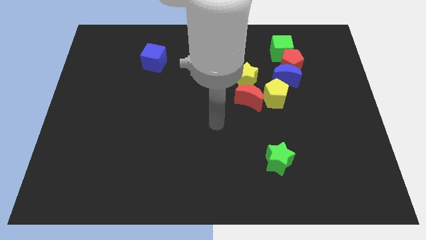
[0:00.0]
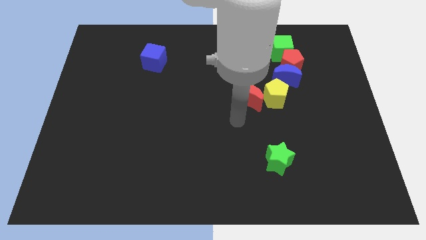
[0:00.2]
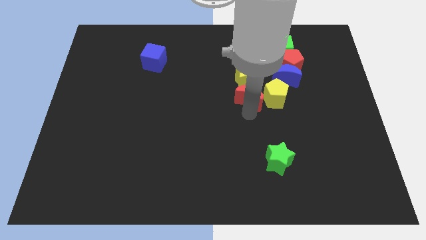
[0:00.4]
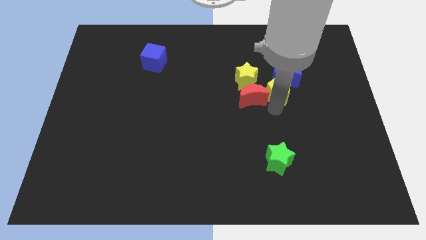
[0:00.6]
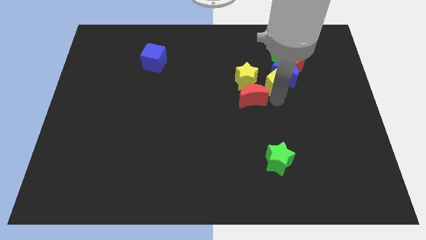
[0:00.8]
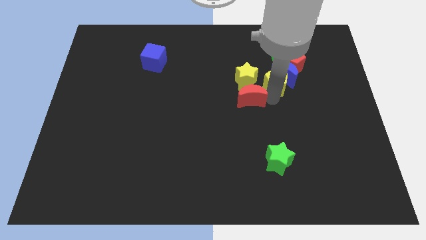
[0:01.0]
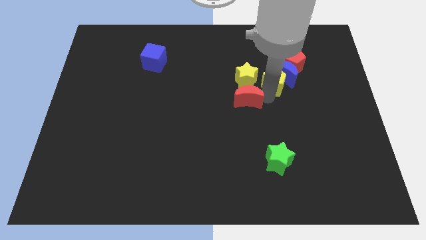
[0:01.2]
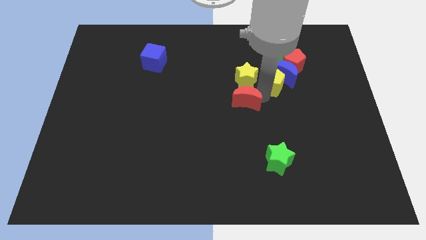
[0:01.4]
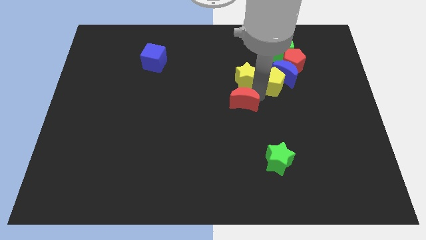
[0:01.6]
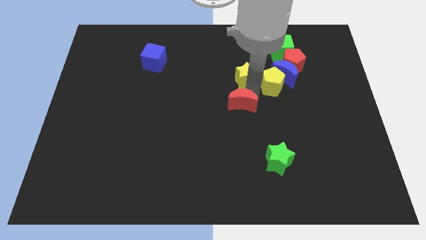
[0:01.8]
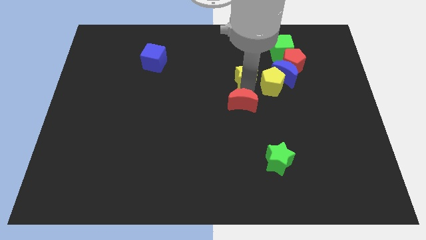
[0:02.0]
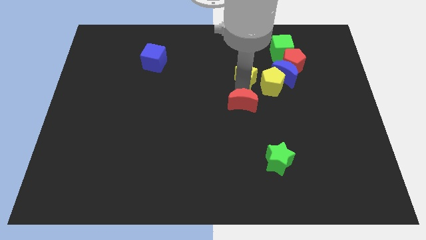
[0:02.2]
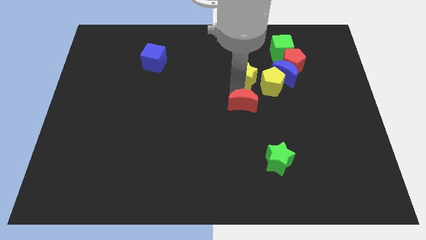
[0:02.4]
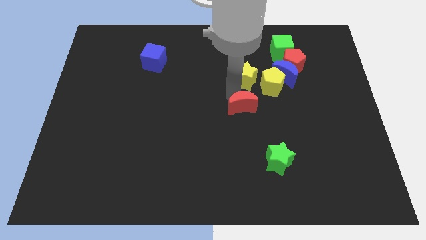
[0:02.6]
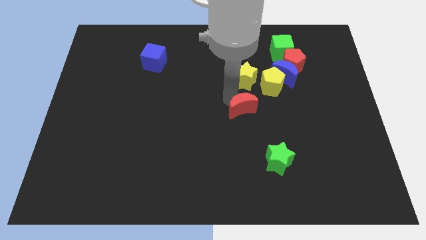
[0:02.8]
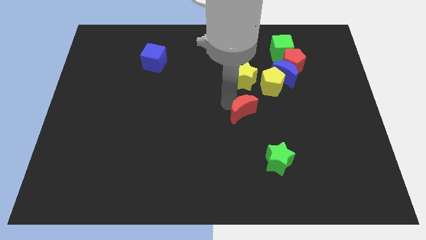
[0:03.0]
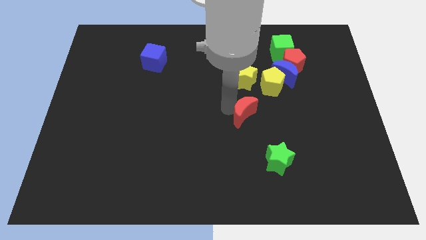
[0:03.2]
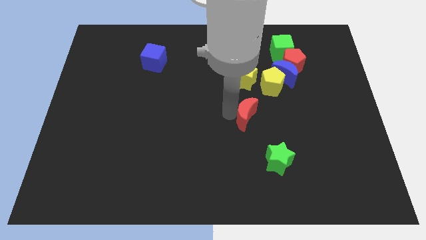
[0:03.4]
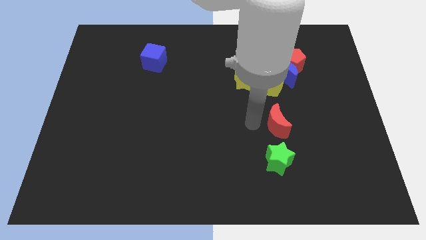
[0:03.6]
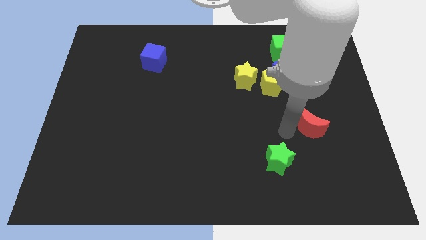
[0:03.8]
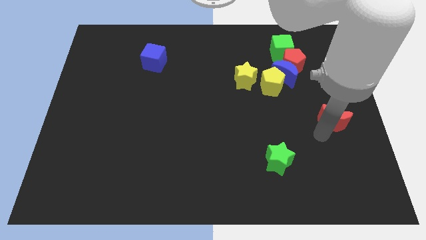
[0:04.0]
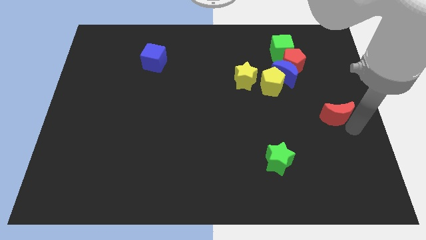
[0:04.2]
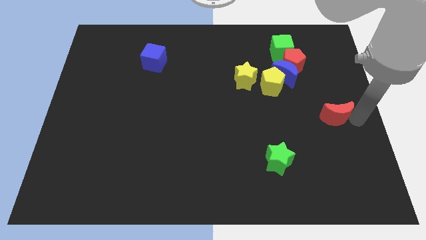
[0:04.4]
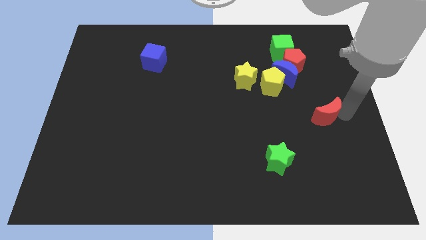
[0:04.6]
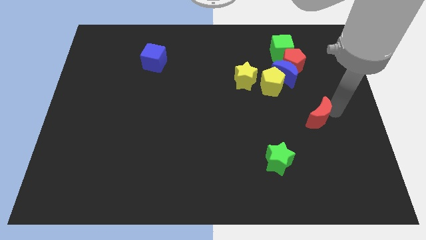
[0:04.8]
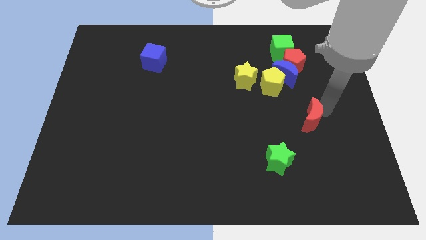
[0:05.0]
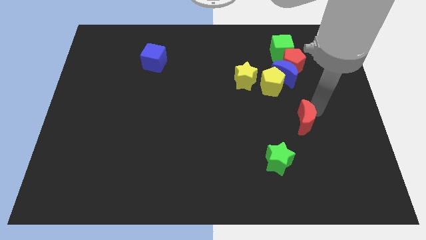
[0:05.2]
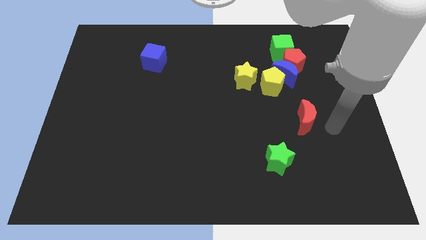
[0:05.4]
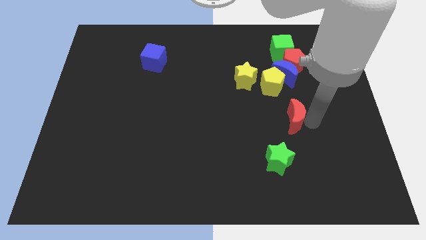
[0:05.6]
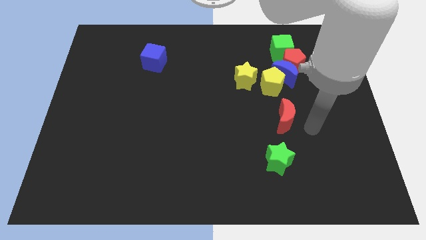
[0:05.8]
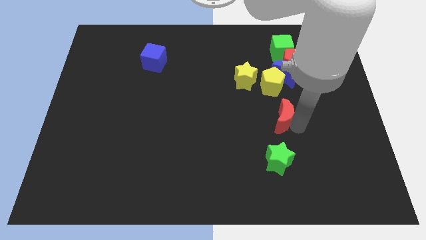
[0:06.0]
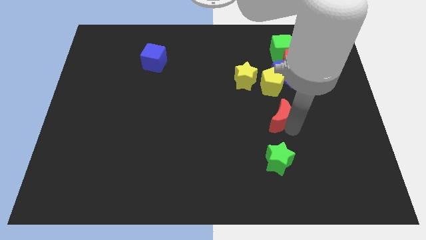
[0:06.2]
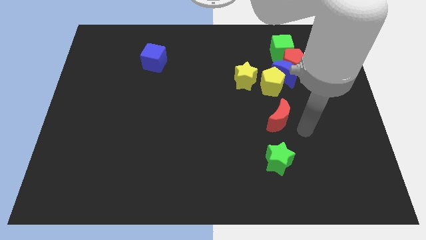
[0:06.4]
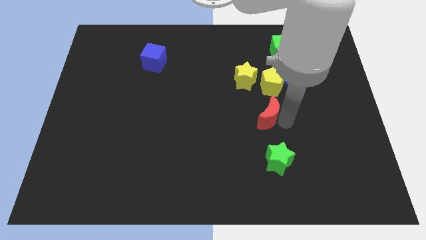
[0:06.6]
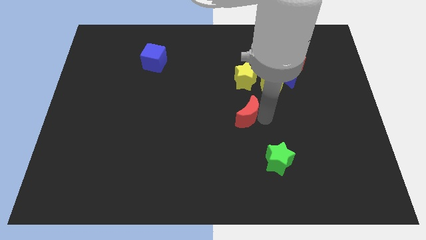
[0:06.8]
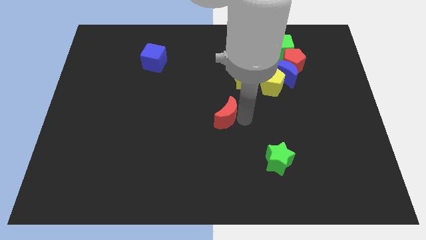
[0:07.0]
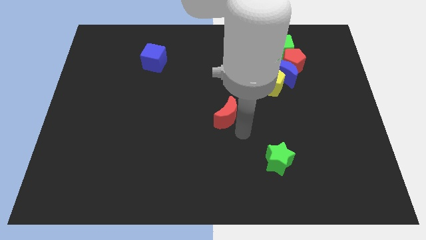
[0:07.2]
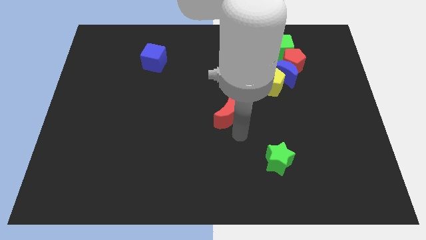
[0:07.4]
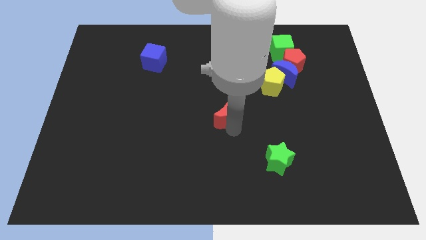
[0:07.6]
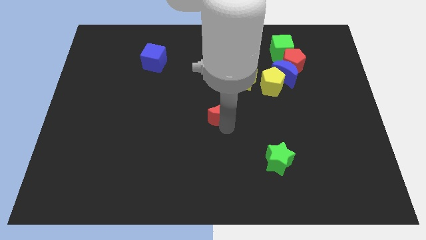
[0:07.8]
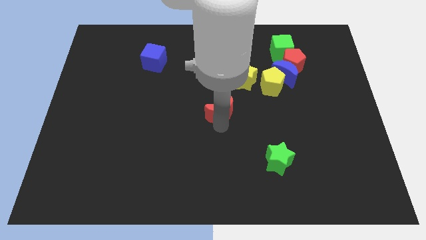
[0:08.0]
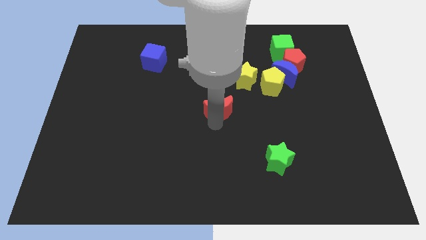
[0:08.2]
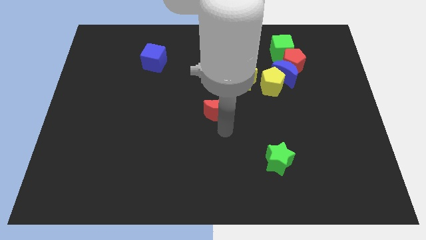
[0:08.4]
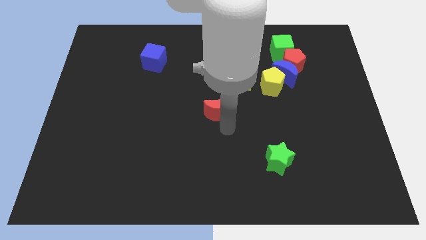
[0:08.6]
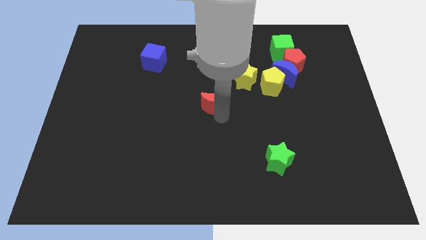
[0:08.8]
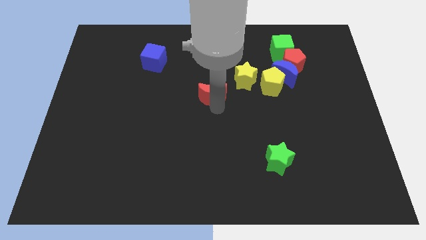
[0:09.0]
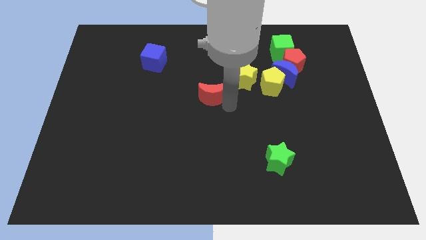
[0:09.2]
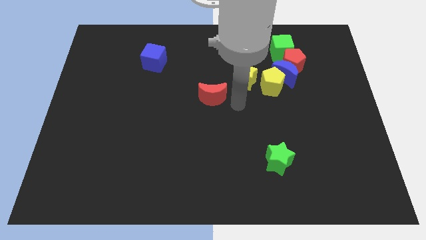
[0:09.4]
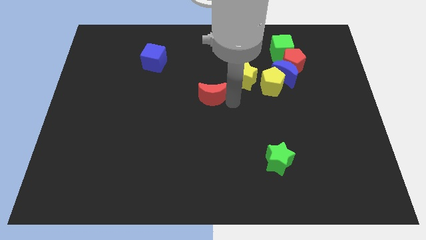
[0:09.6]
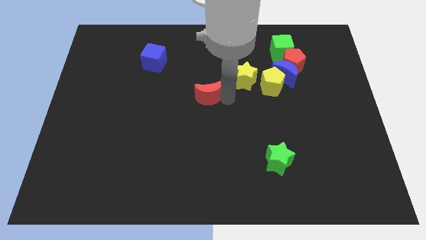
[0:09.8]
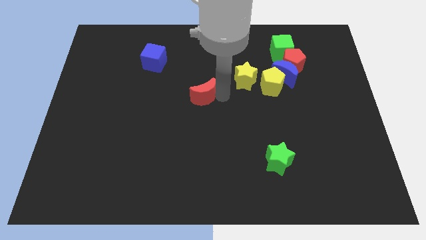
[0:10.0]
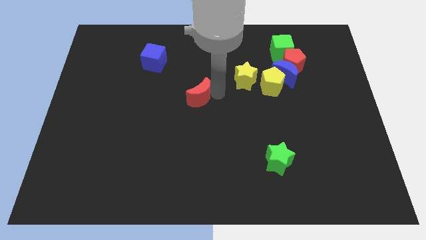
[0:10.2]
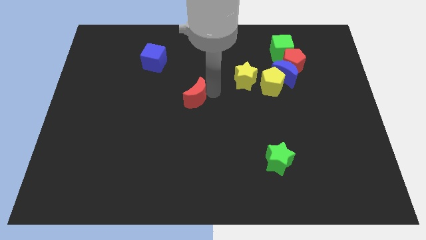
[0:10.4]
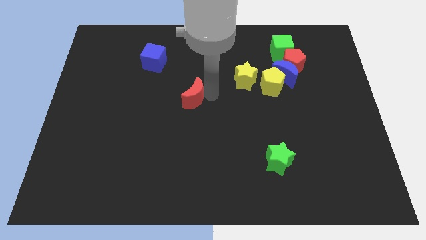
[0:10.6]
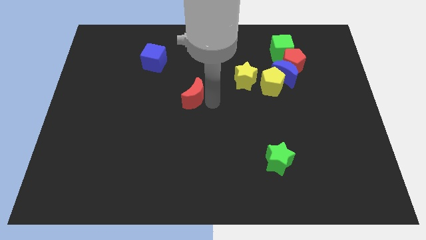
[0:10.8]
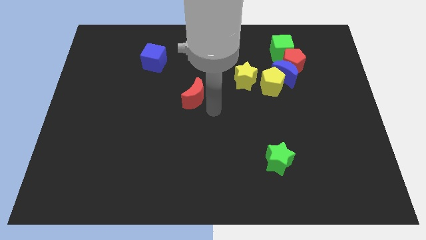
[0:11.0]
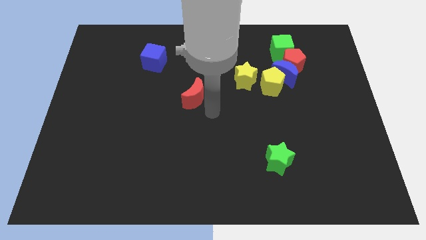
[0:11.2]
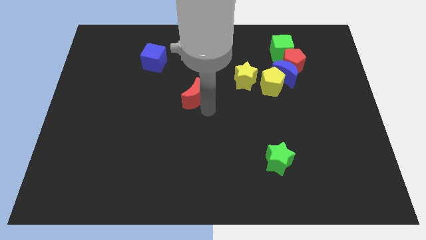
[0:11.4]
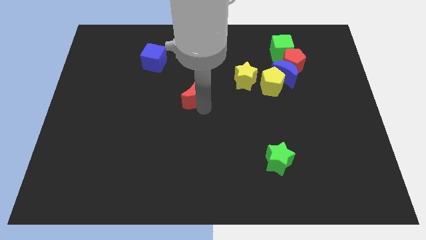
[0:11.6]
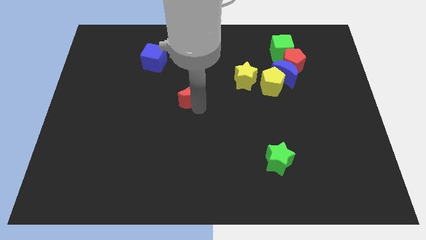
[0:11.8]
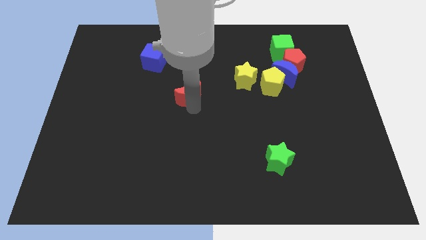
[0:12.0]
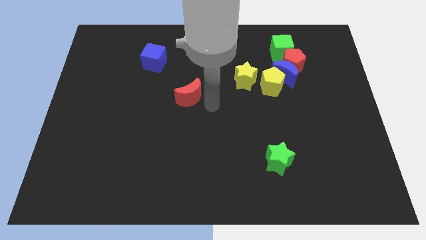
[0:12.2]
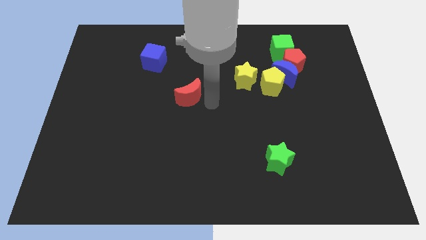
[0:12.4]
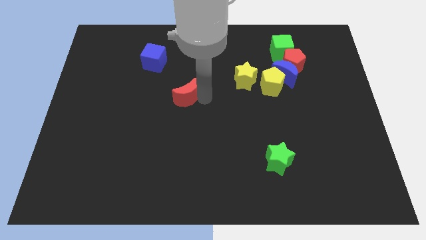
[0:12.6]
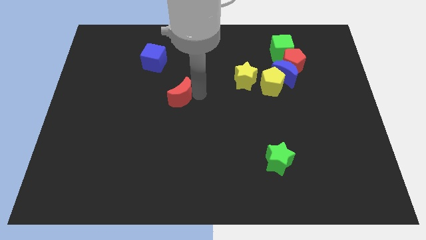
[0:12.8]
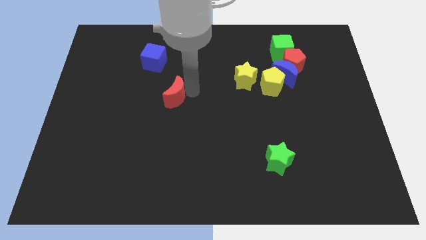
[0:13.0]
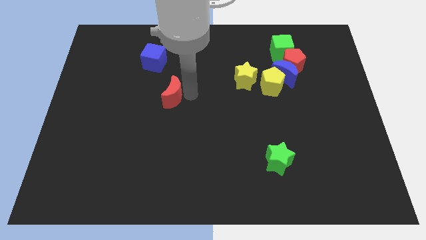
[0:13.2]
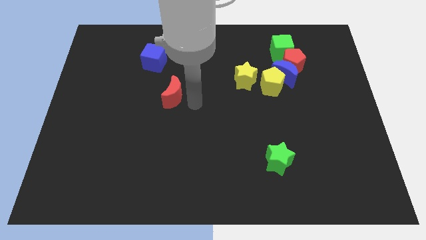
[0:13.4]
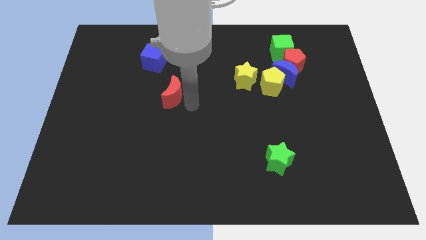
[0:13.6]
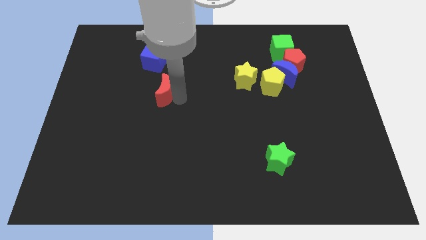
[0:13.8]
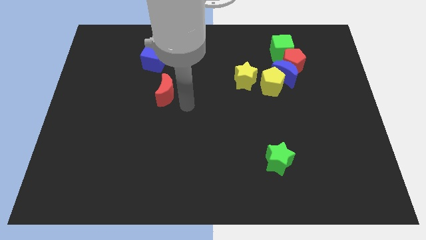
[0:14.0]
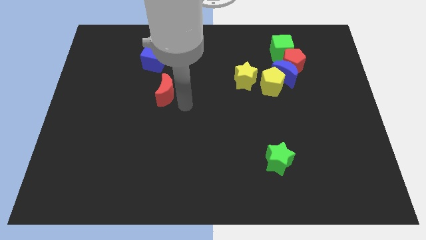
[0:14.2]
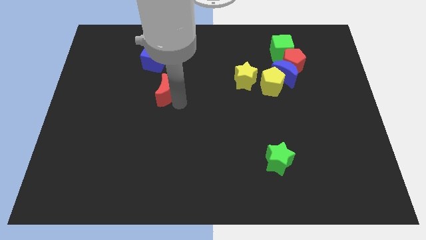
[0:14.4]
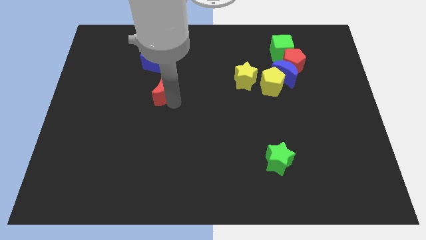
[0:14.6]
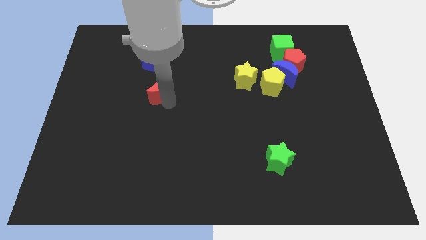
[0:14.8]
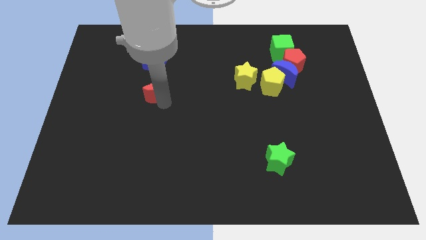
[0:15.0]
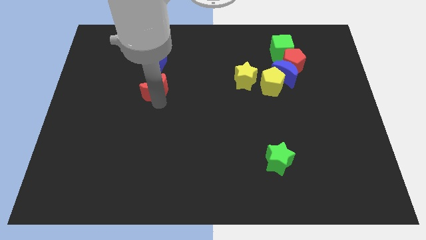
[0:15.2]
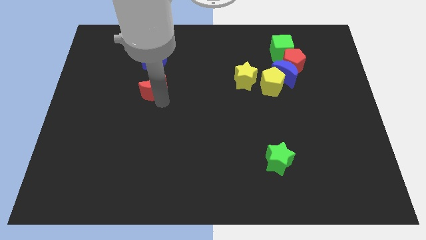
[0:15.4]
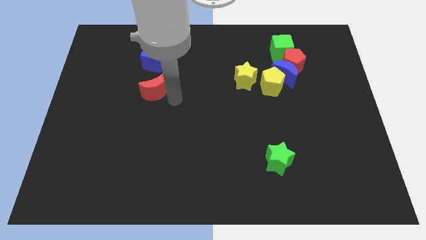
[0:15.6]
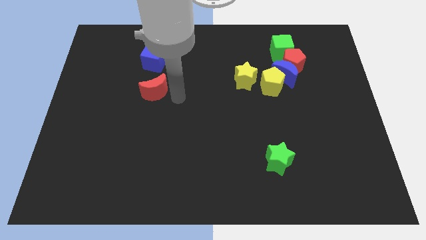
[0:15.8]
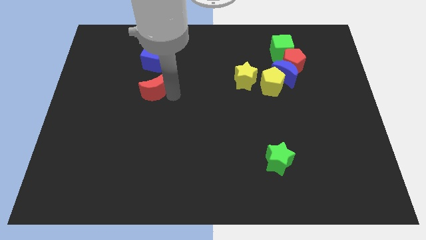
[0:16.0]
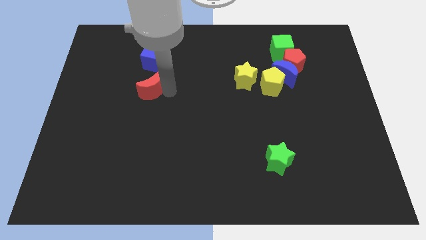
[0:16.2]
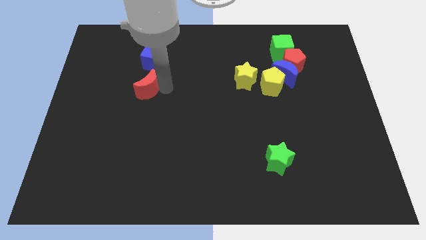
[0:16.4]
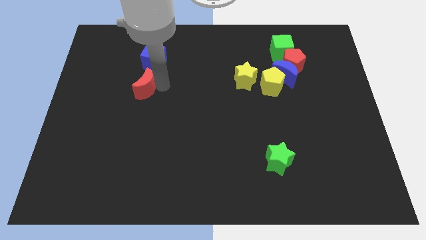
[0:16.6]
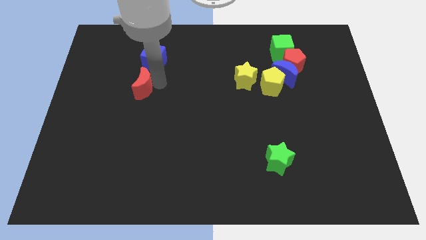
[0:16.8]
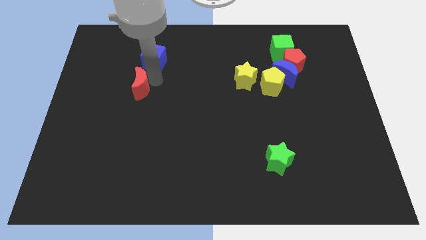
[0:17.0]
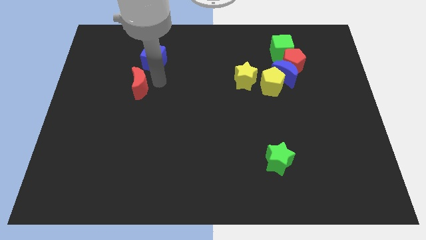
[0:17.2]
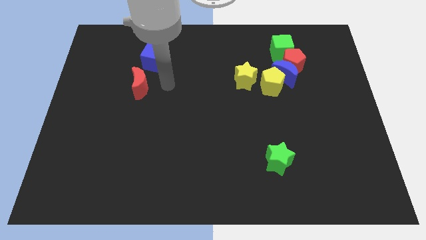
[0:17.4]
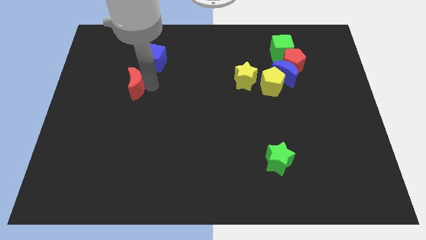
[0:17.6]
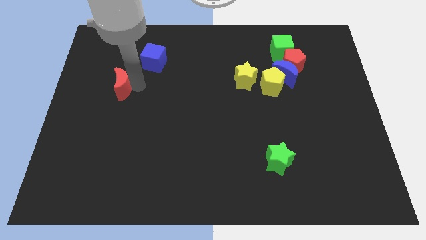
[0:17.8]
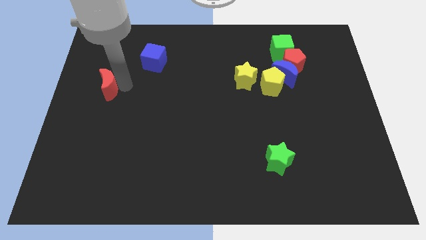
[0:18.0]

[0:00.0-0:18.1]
push the red moon to the left side
